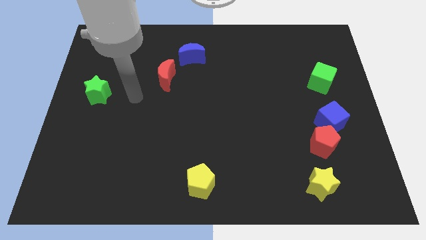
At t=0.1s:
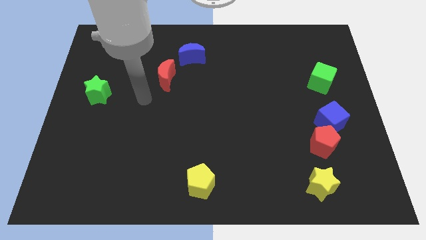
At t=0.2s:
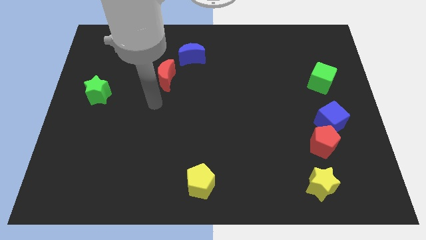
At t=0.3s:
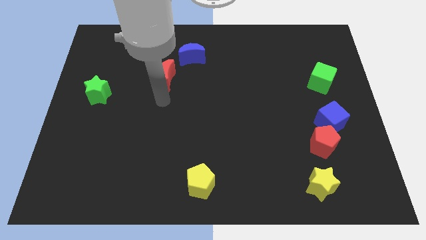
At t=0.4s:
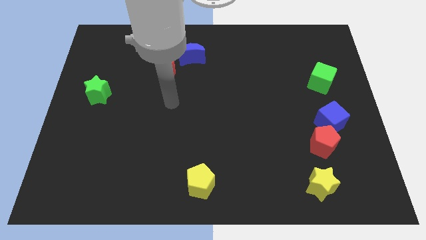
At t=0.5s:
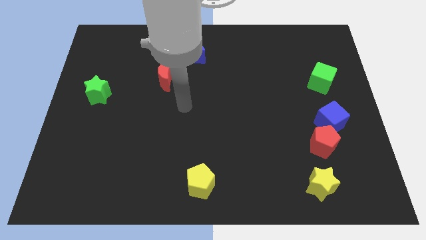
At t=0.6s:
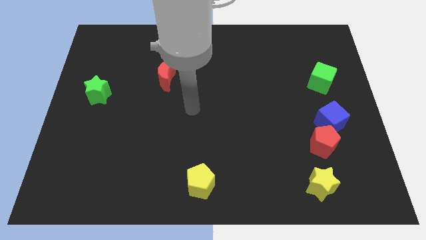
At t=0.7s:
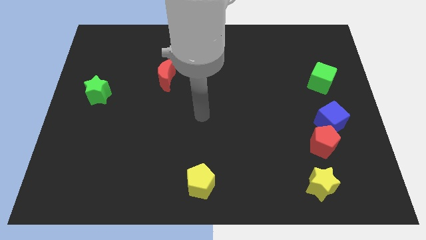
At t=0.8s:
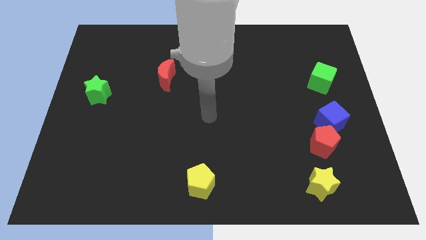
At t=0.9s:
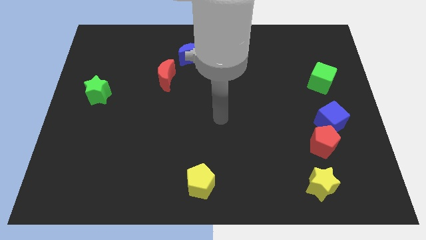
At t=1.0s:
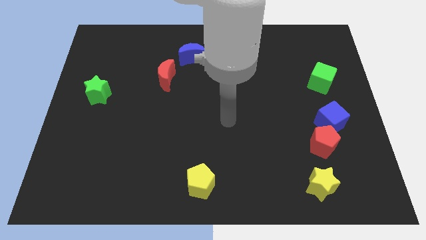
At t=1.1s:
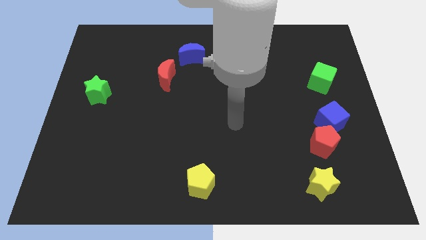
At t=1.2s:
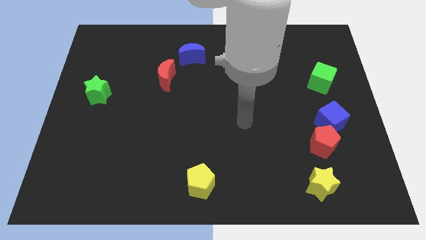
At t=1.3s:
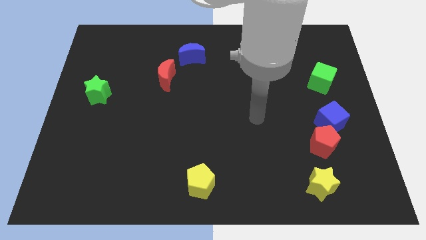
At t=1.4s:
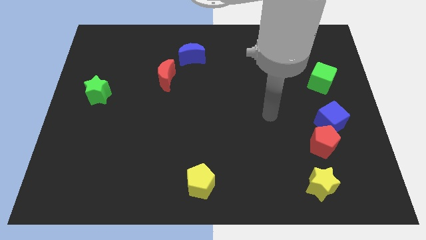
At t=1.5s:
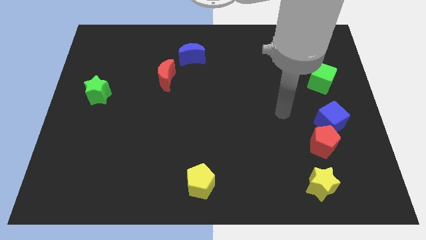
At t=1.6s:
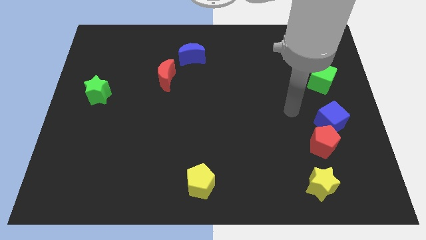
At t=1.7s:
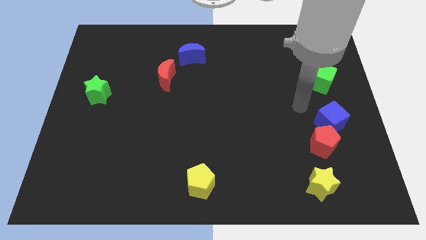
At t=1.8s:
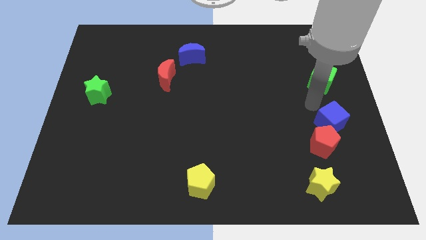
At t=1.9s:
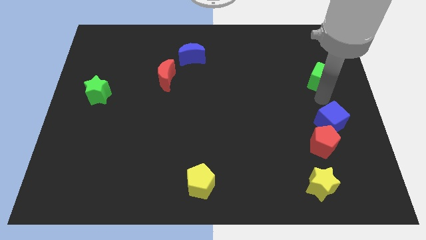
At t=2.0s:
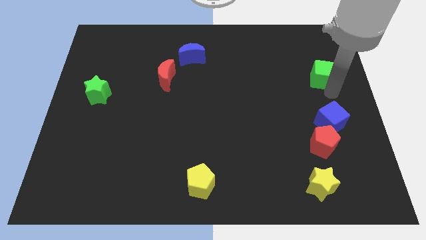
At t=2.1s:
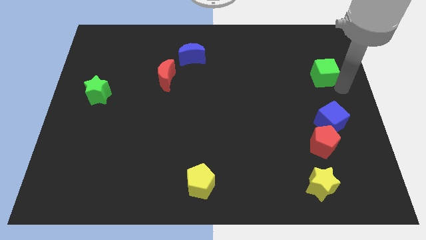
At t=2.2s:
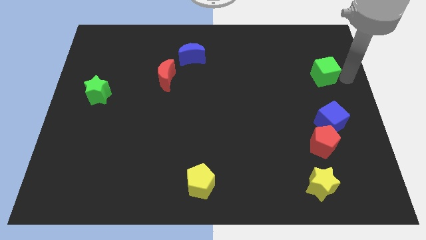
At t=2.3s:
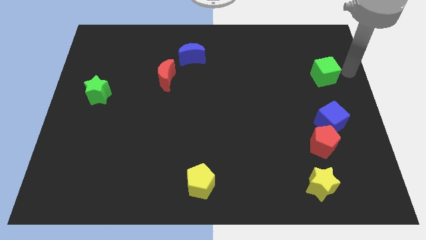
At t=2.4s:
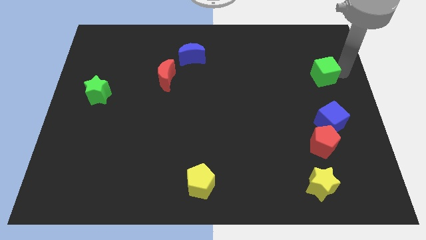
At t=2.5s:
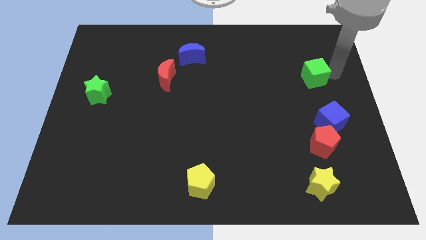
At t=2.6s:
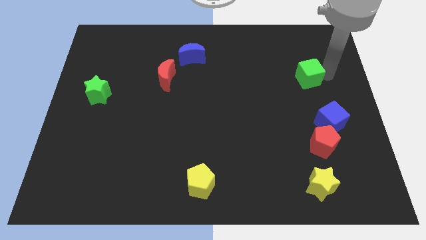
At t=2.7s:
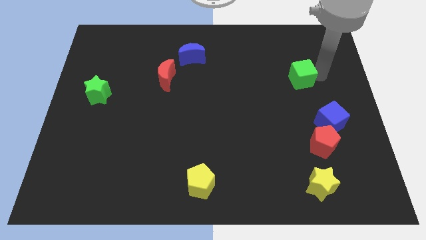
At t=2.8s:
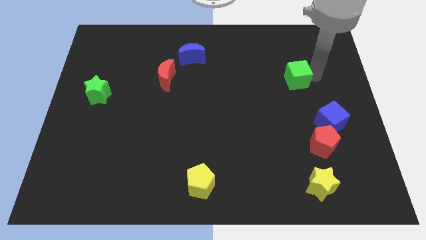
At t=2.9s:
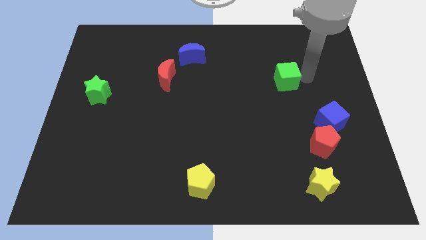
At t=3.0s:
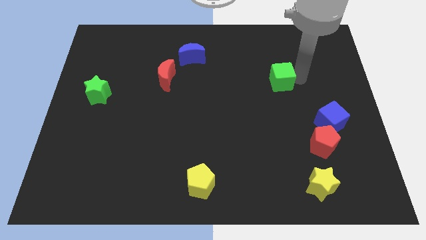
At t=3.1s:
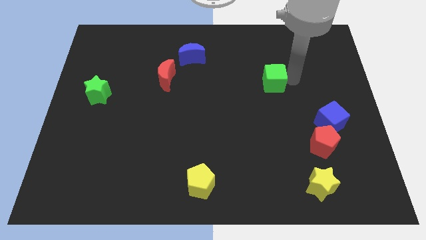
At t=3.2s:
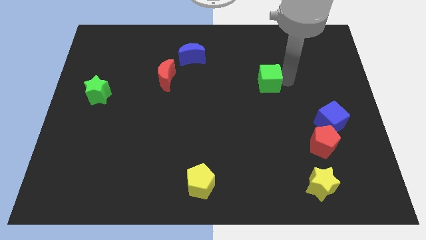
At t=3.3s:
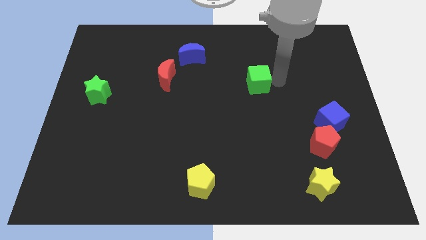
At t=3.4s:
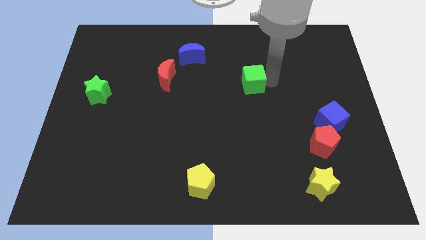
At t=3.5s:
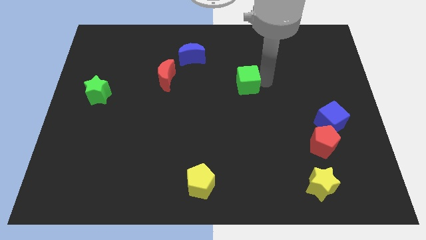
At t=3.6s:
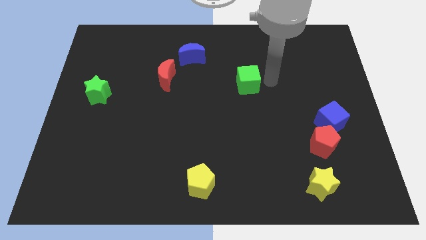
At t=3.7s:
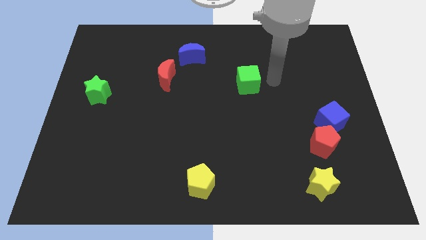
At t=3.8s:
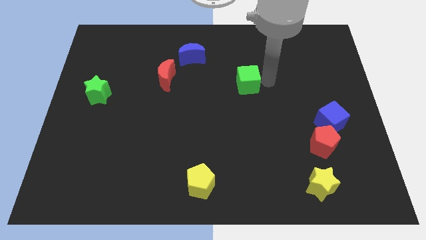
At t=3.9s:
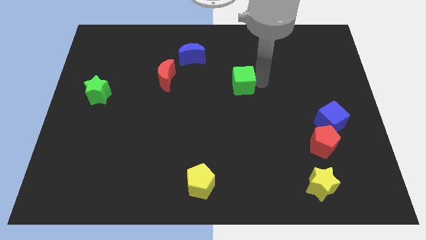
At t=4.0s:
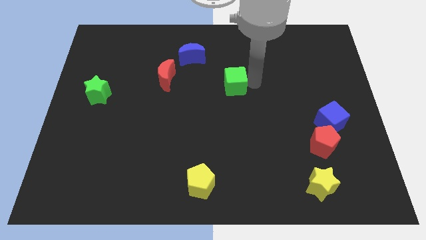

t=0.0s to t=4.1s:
push the green cube left

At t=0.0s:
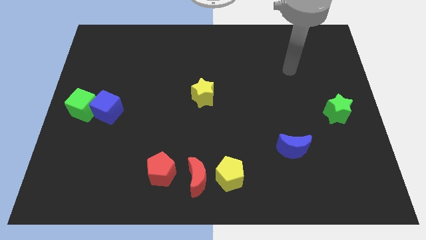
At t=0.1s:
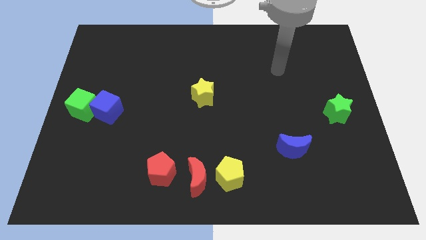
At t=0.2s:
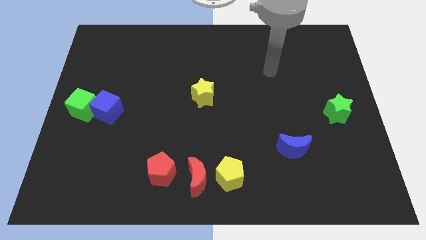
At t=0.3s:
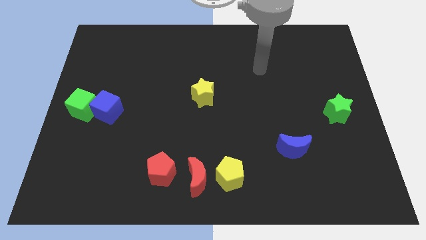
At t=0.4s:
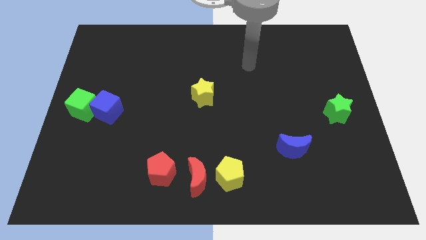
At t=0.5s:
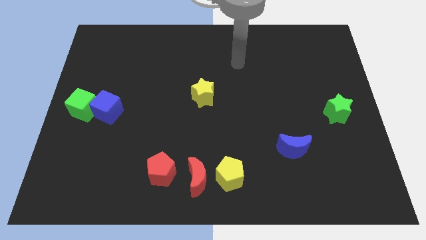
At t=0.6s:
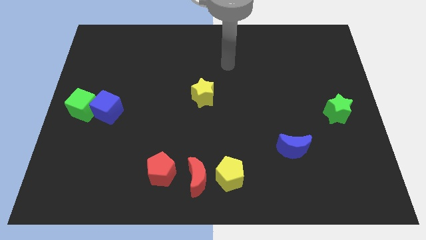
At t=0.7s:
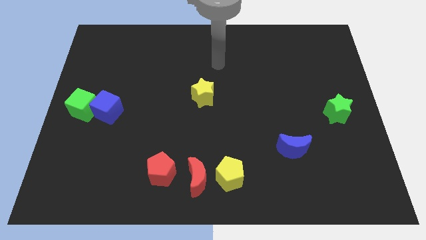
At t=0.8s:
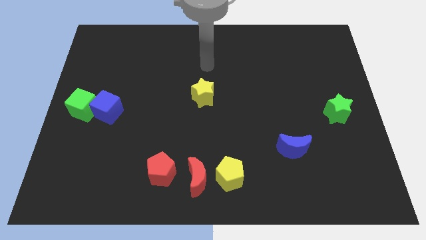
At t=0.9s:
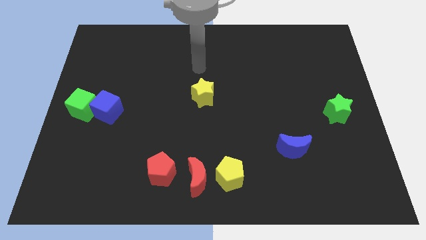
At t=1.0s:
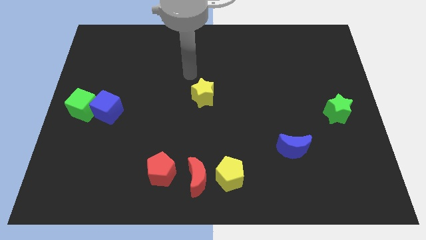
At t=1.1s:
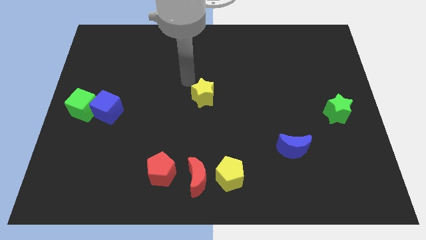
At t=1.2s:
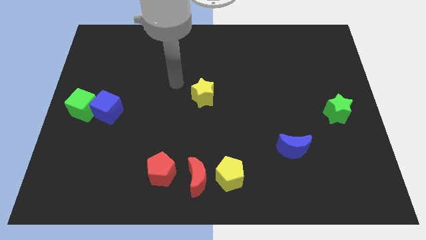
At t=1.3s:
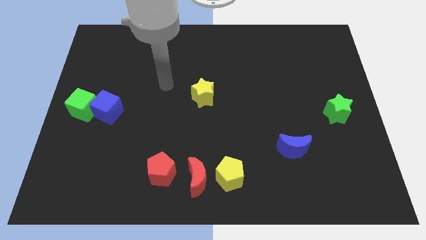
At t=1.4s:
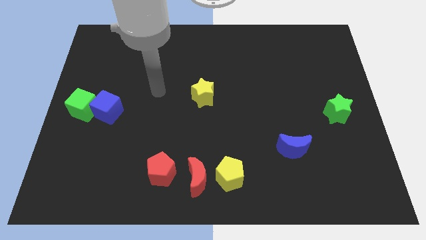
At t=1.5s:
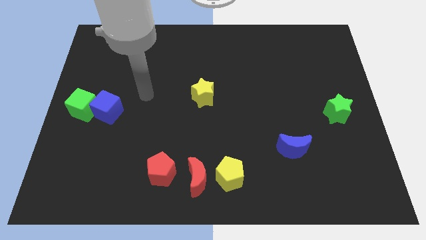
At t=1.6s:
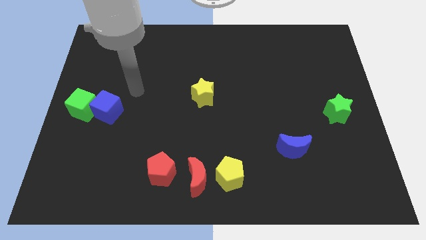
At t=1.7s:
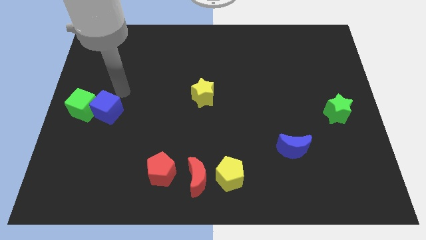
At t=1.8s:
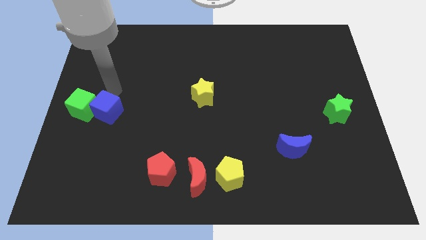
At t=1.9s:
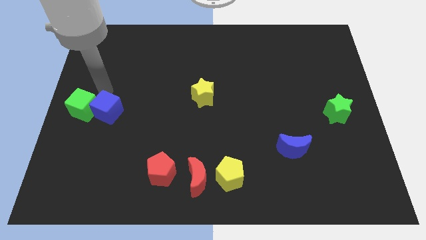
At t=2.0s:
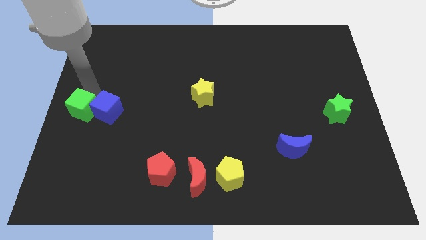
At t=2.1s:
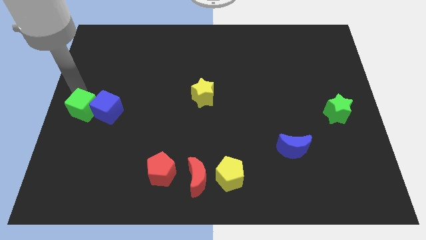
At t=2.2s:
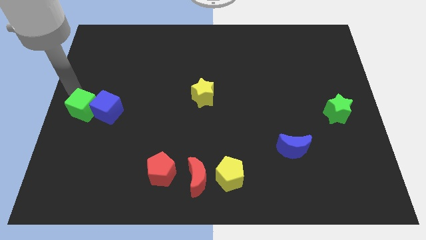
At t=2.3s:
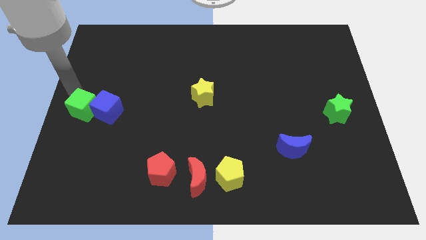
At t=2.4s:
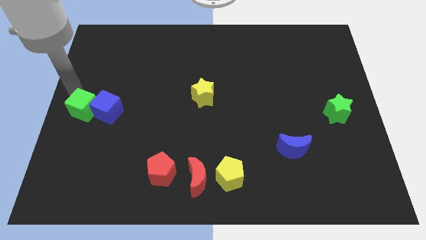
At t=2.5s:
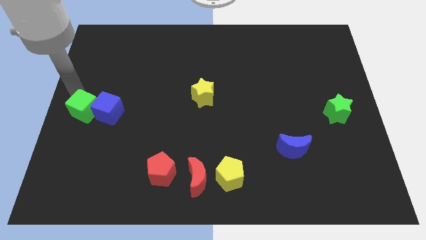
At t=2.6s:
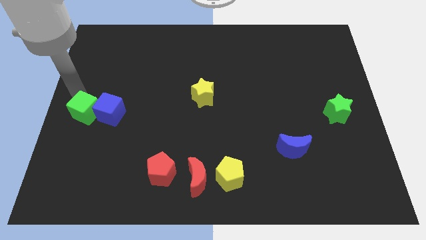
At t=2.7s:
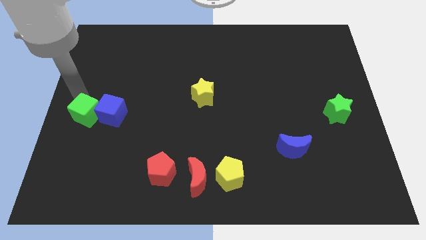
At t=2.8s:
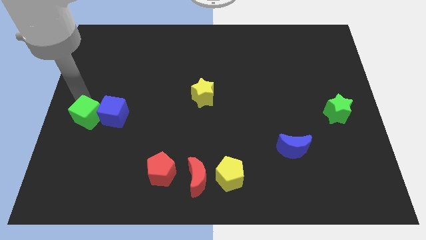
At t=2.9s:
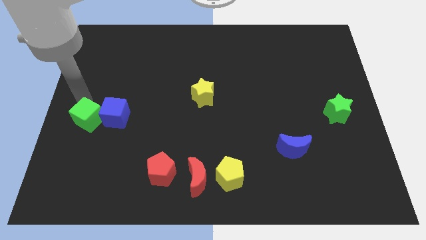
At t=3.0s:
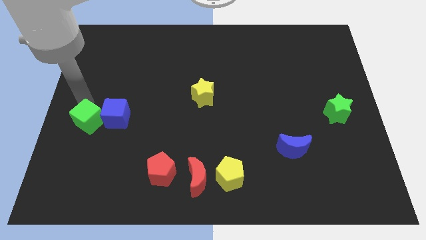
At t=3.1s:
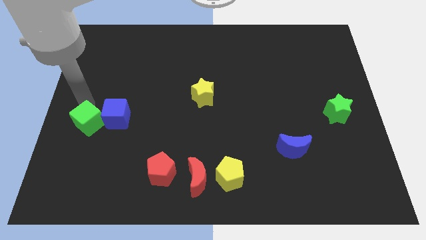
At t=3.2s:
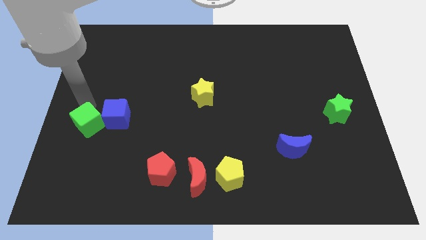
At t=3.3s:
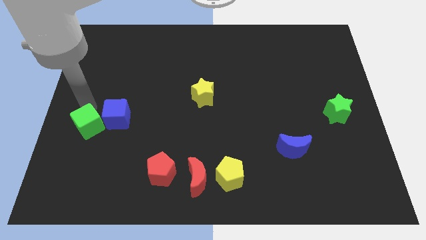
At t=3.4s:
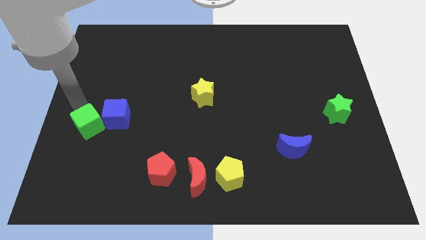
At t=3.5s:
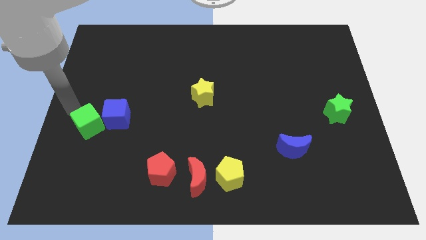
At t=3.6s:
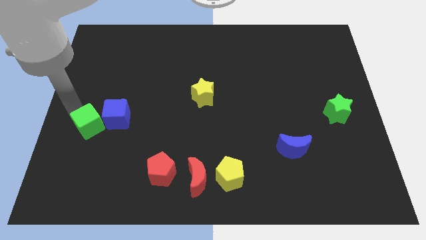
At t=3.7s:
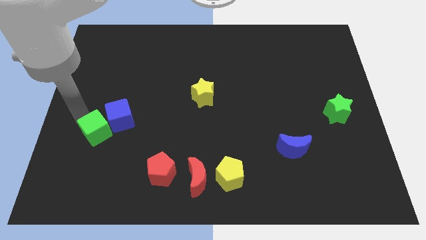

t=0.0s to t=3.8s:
slightly slide the green cube diagonally downwards and right
